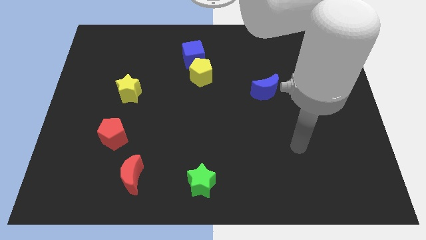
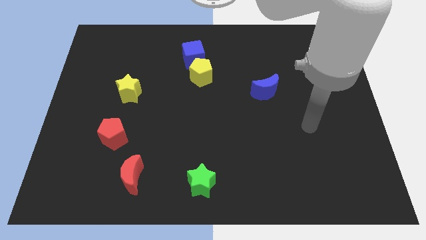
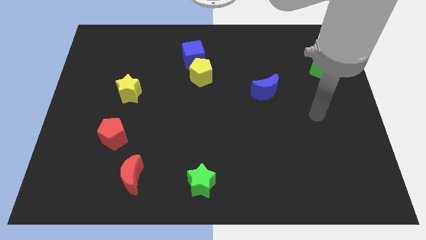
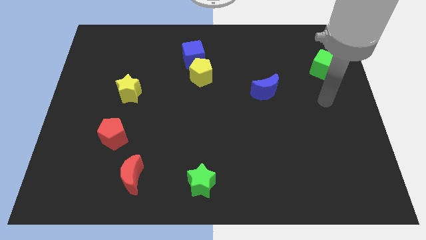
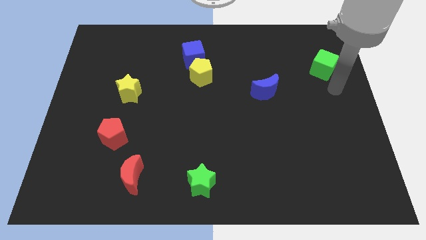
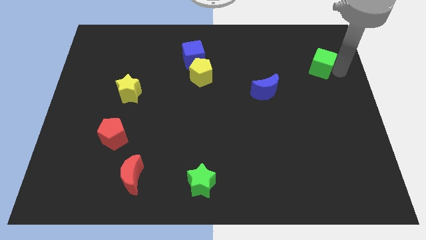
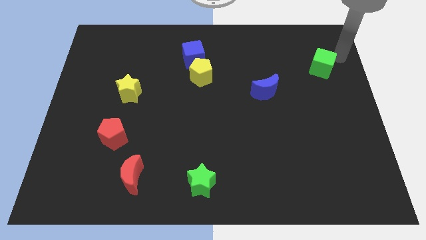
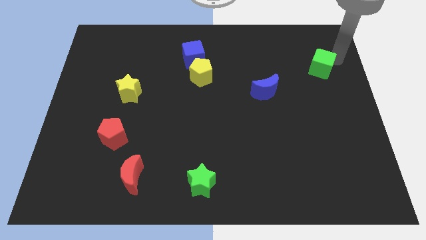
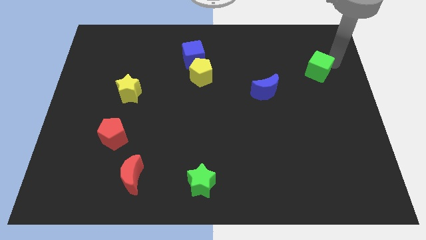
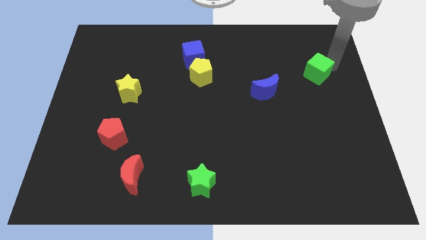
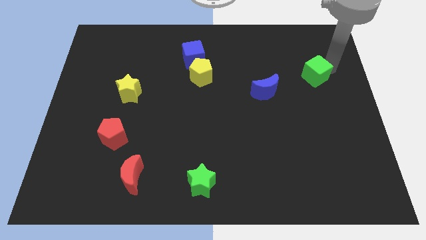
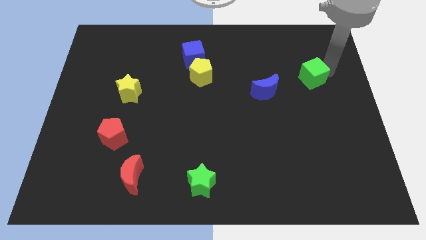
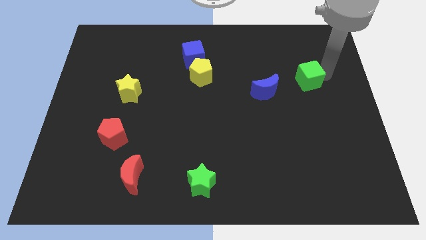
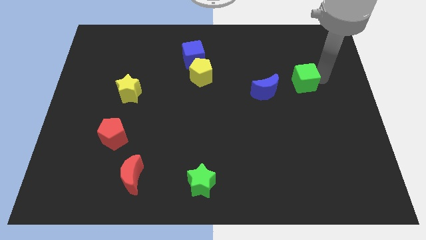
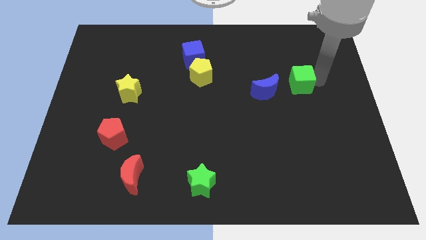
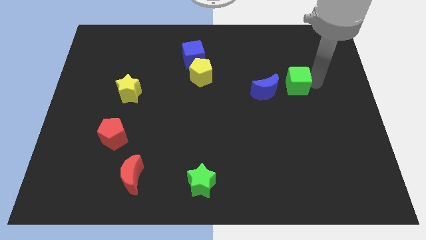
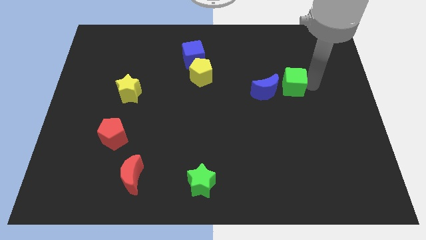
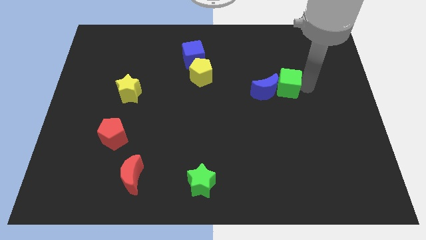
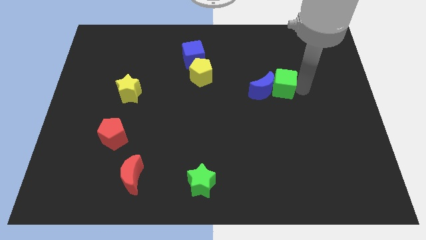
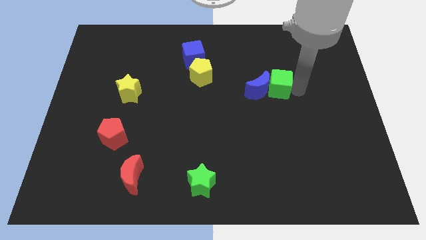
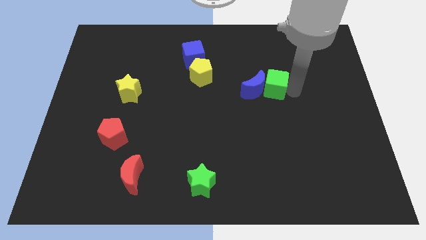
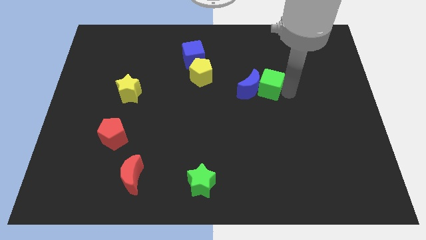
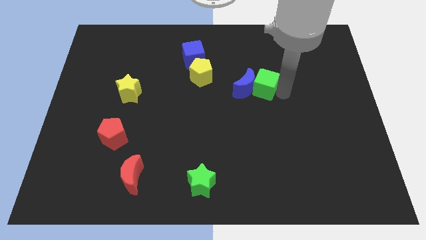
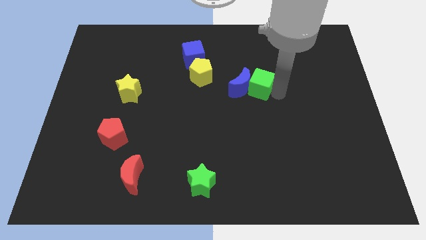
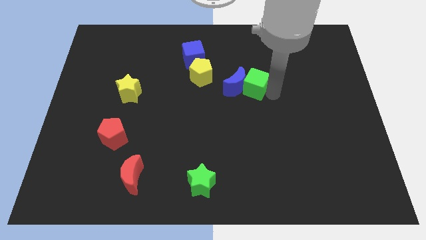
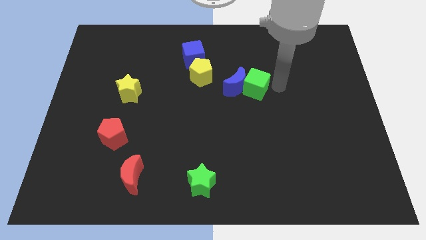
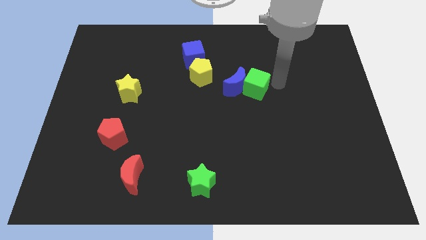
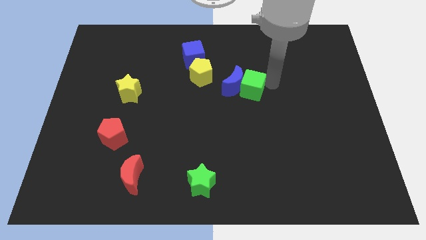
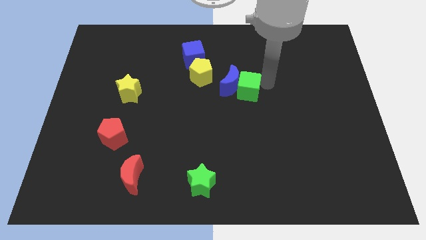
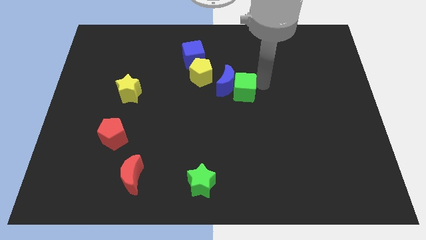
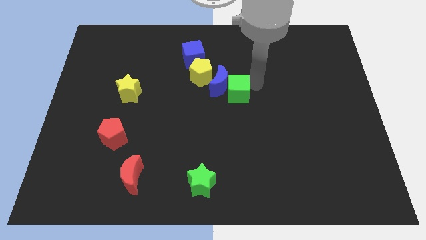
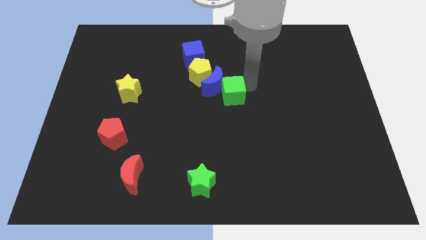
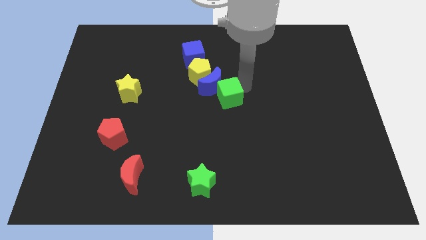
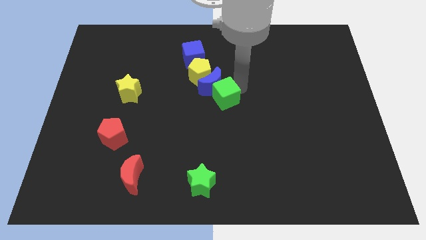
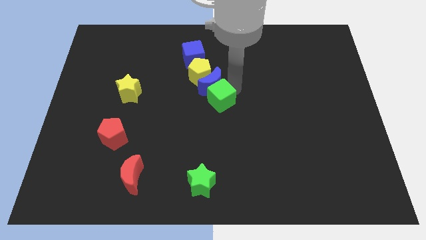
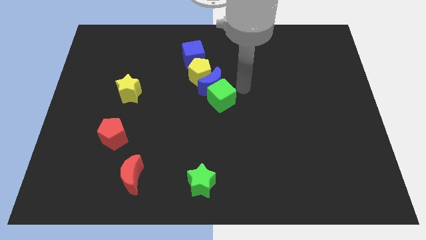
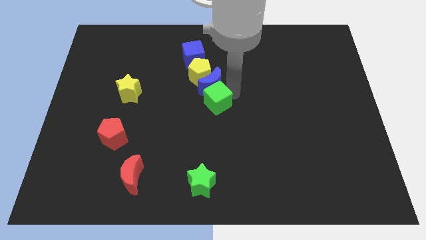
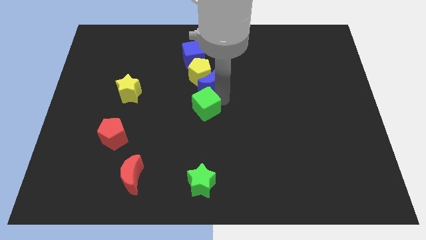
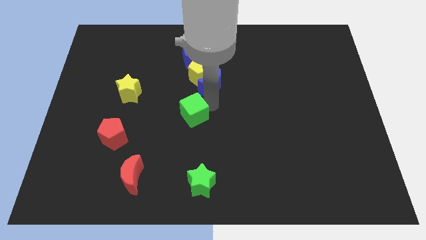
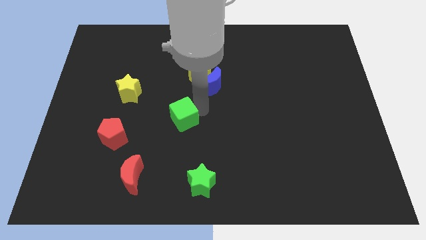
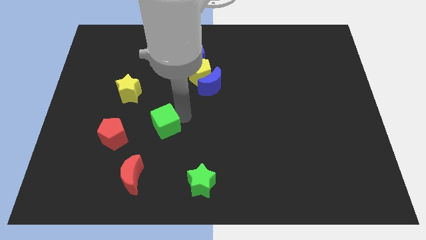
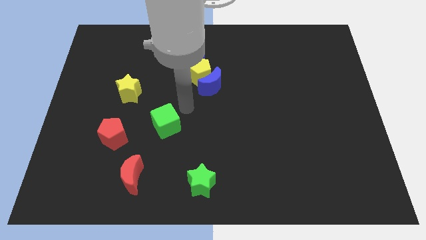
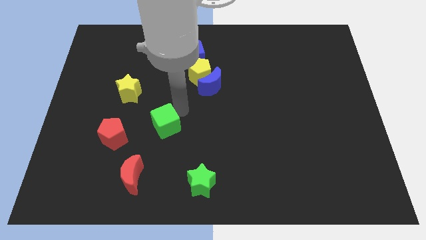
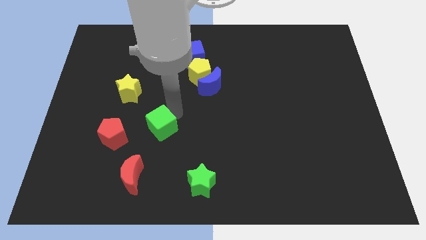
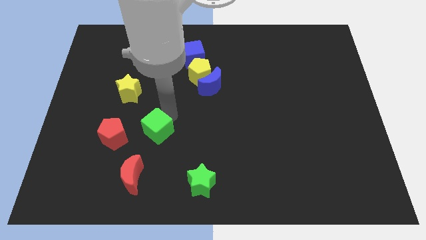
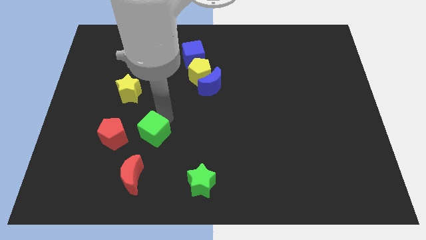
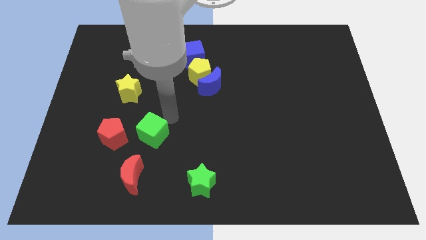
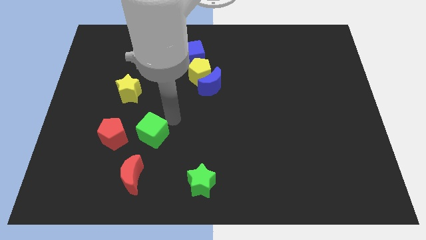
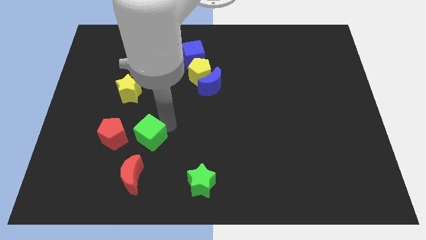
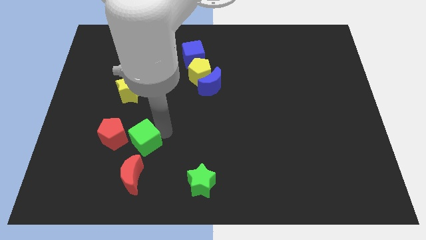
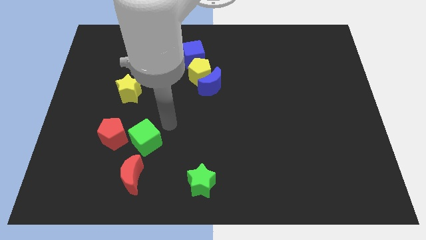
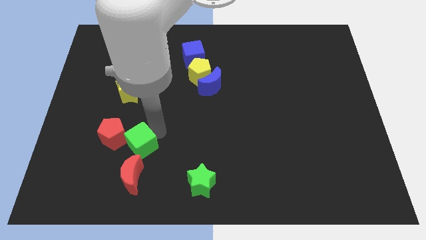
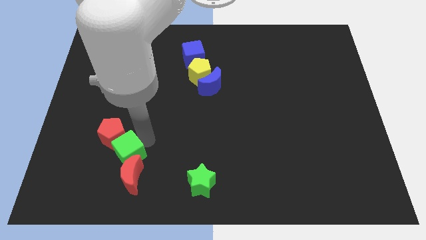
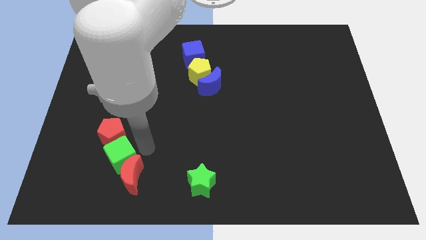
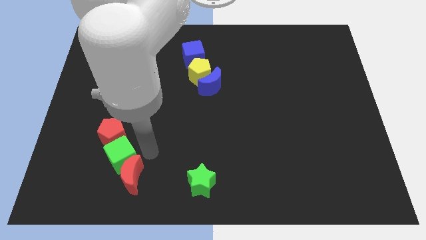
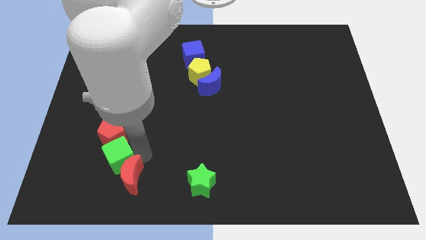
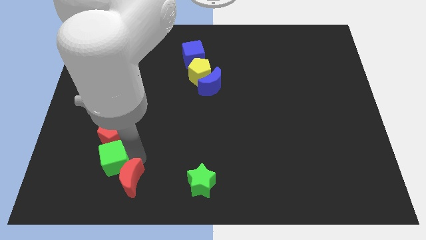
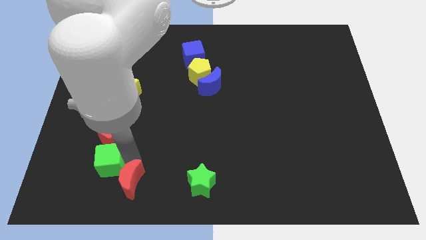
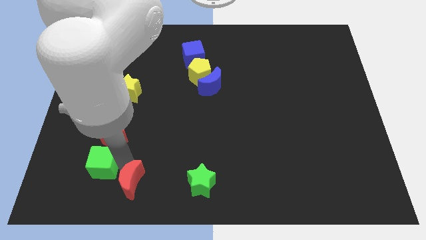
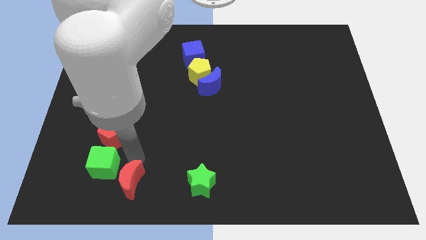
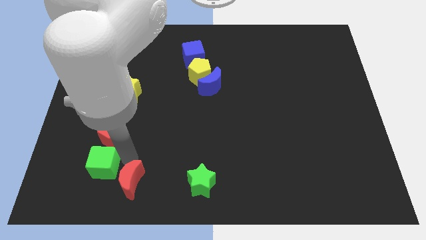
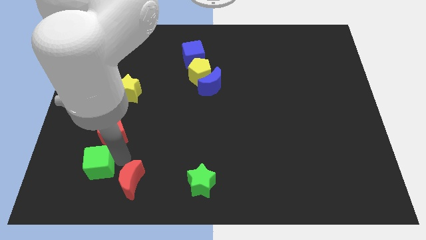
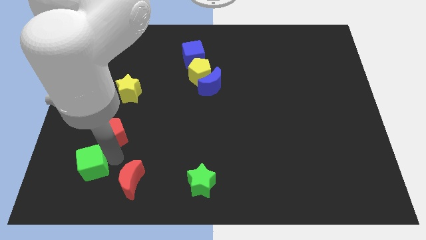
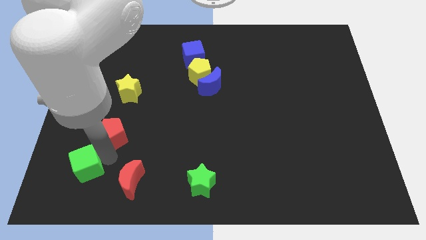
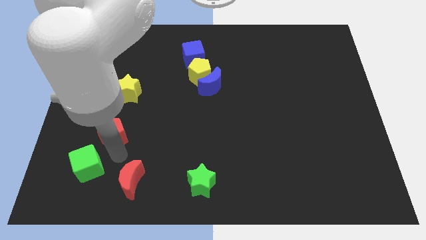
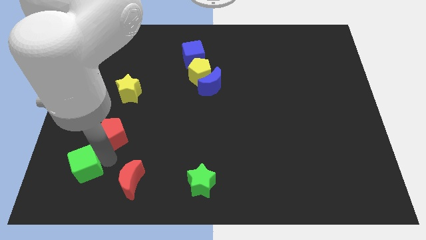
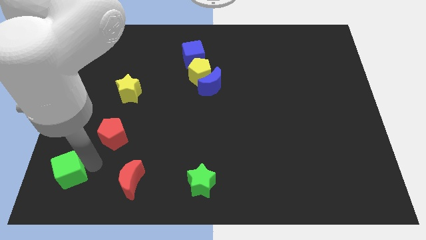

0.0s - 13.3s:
move the green cube to the bottom left

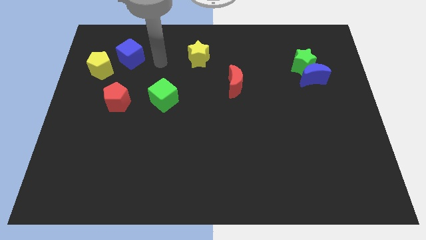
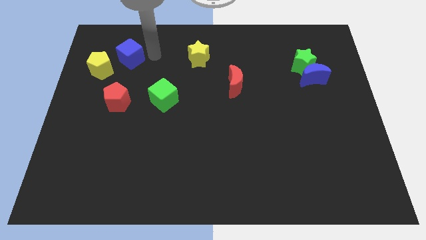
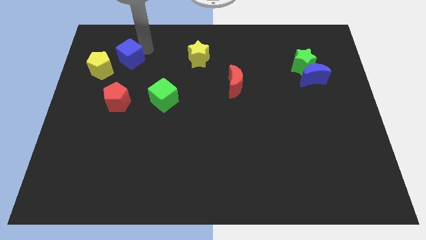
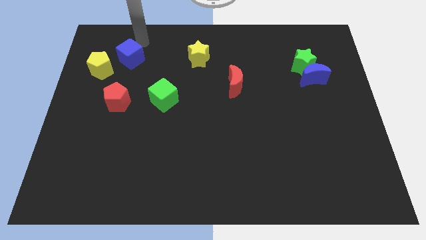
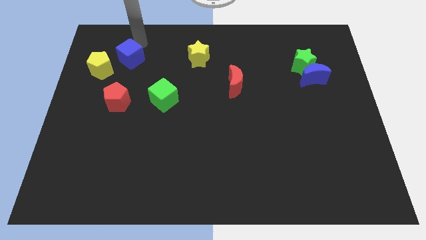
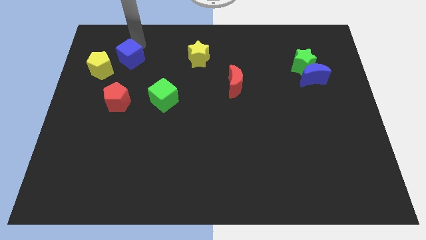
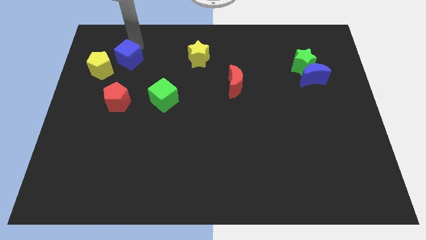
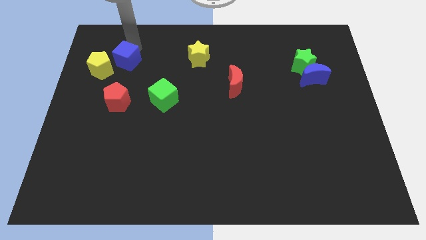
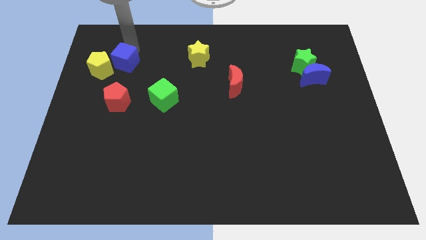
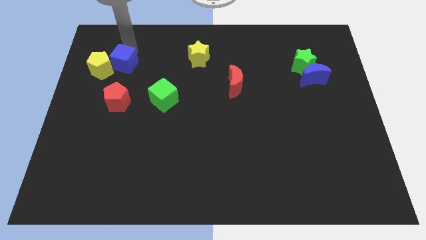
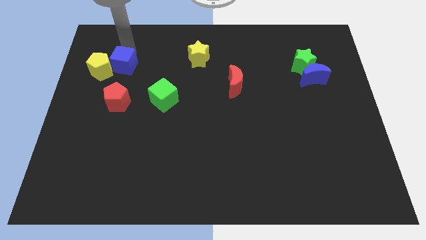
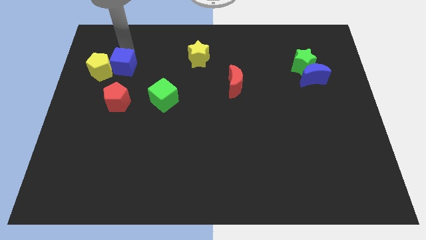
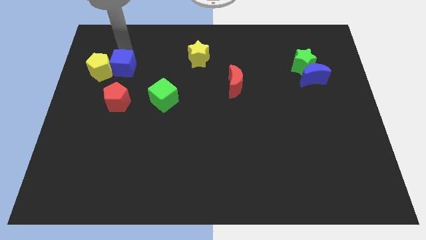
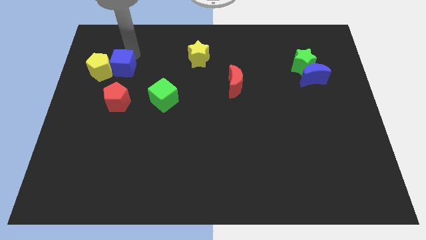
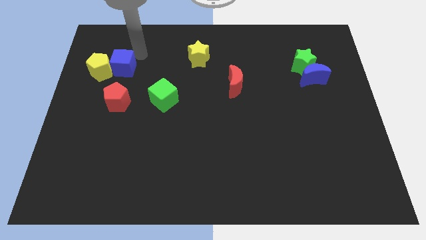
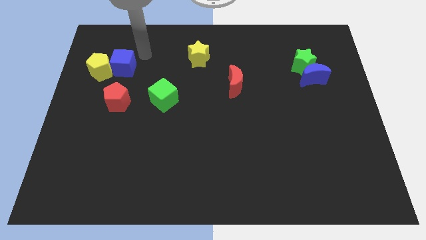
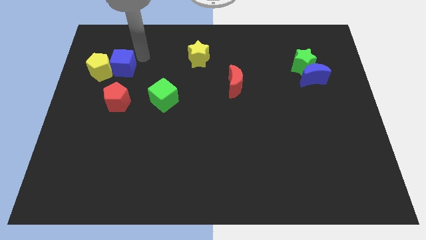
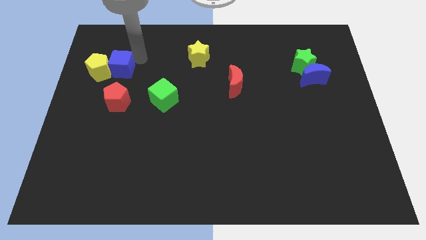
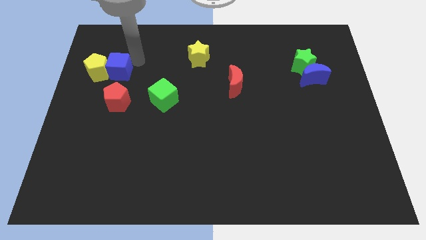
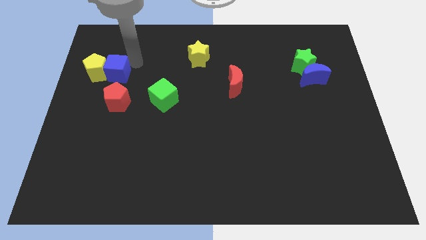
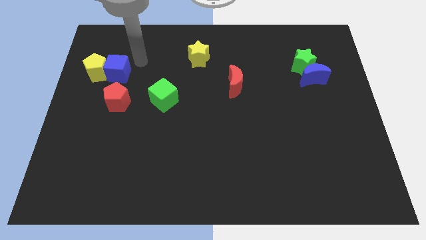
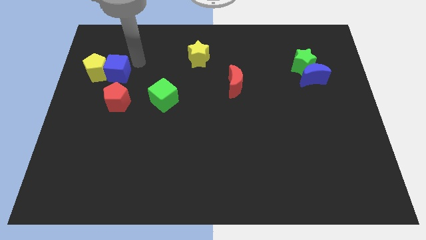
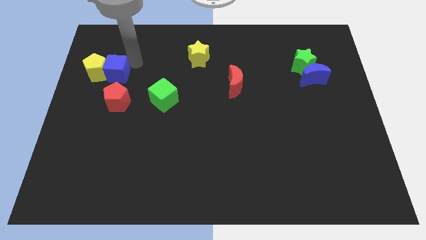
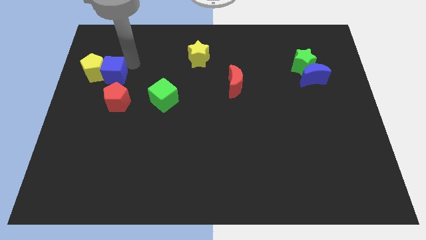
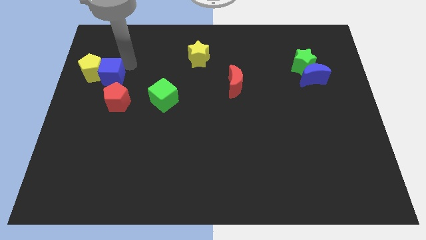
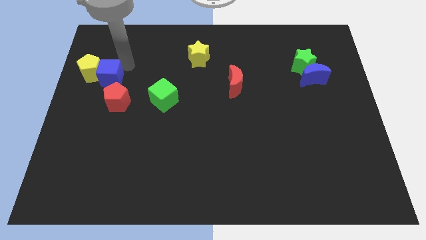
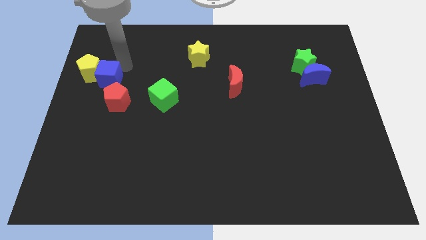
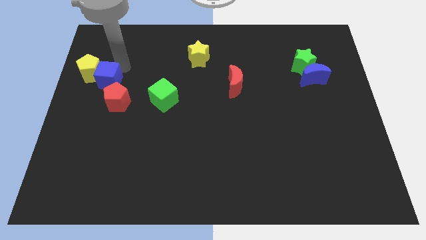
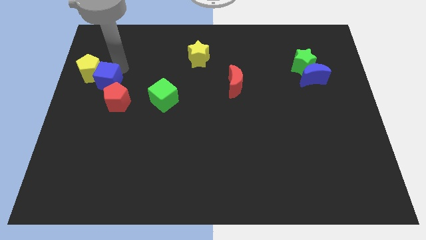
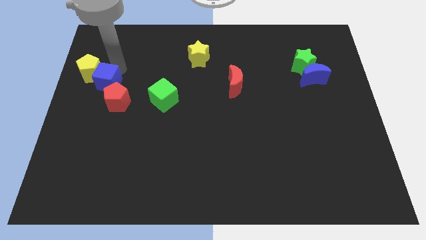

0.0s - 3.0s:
move the blue cube to the left side of the board
